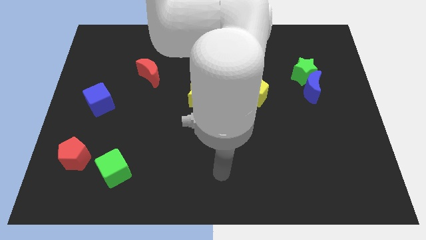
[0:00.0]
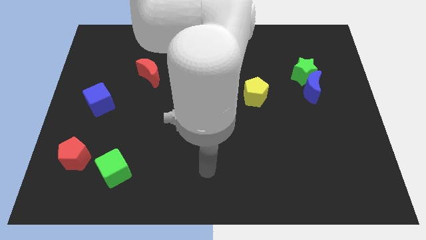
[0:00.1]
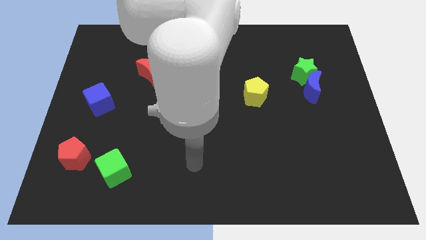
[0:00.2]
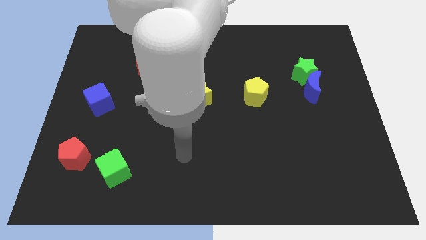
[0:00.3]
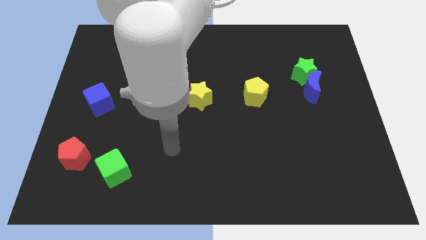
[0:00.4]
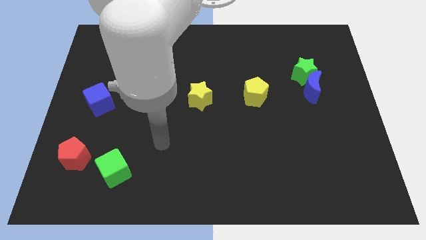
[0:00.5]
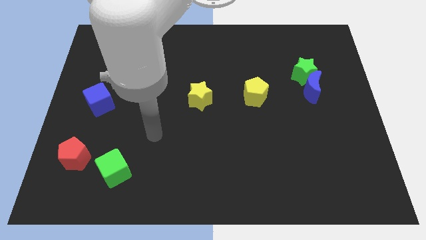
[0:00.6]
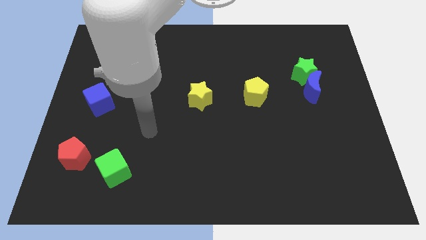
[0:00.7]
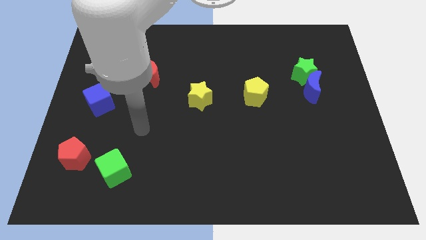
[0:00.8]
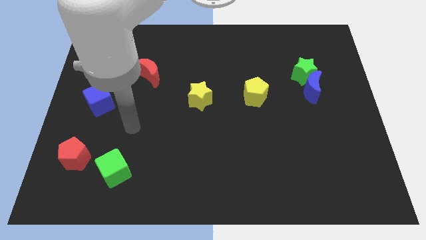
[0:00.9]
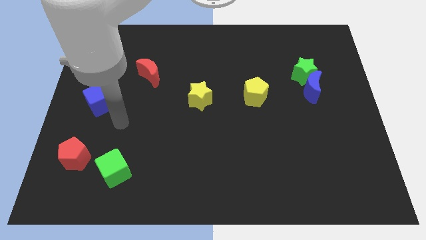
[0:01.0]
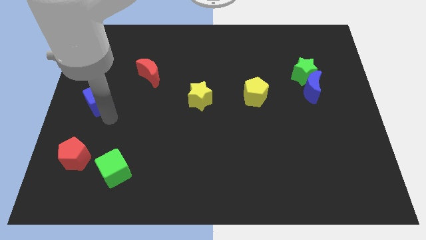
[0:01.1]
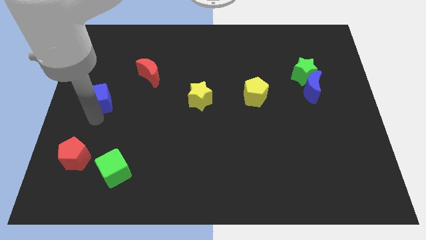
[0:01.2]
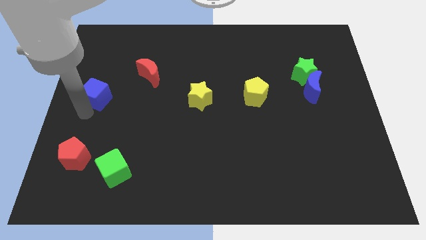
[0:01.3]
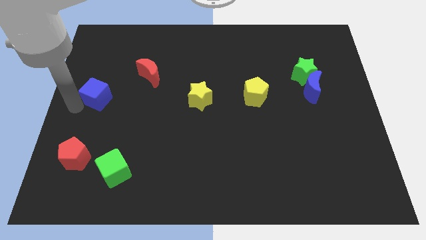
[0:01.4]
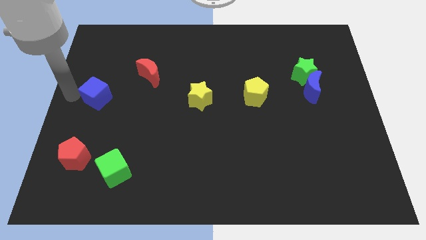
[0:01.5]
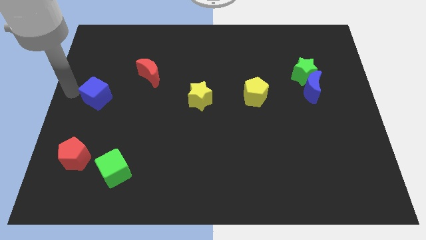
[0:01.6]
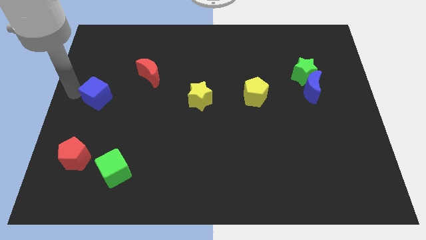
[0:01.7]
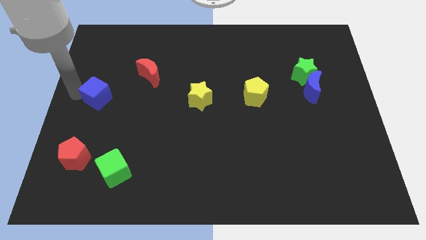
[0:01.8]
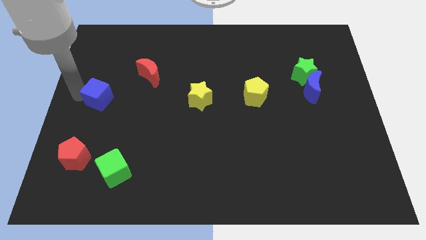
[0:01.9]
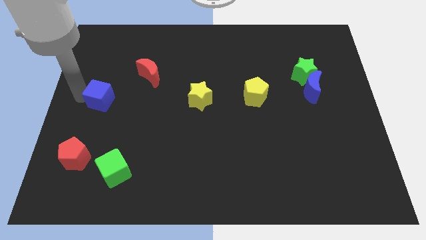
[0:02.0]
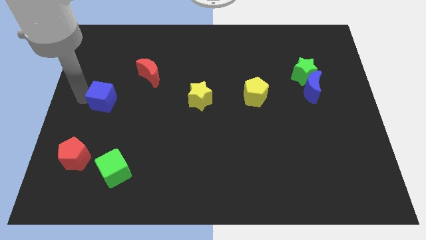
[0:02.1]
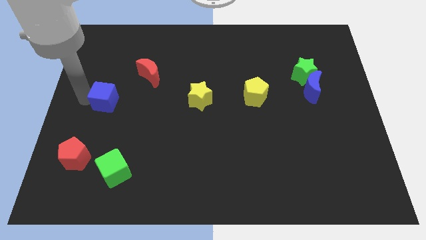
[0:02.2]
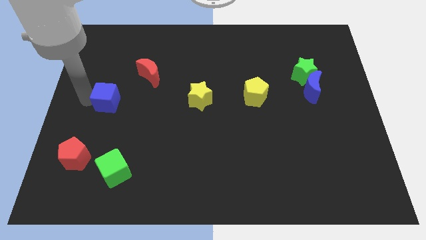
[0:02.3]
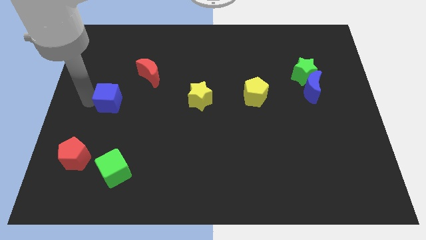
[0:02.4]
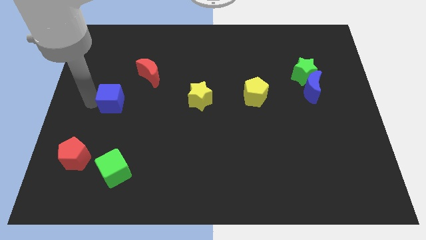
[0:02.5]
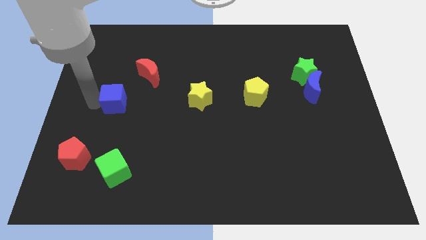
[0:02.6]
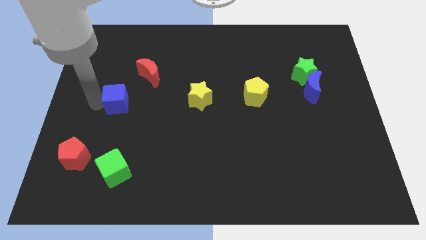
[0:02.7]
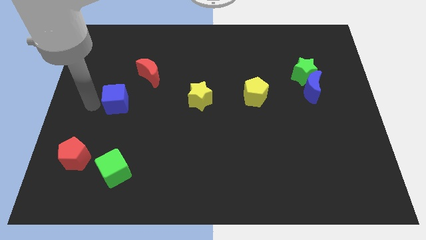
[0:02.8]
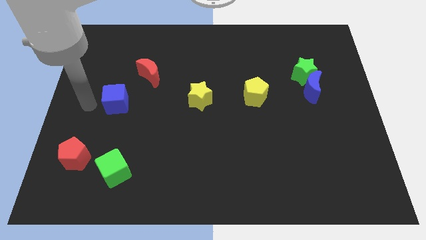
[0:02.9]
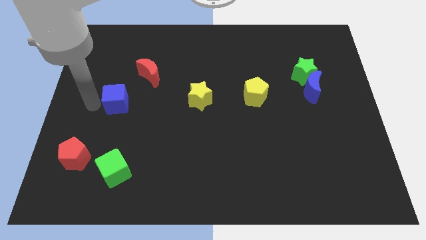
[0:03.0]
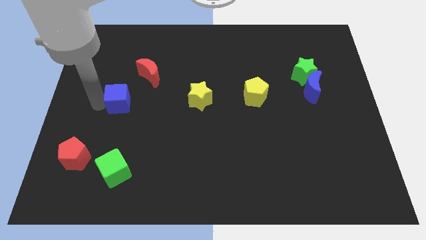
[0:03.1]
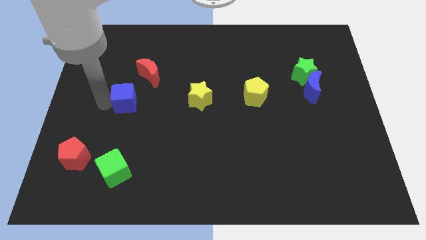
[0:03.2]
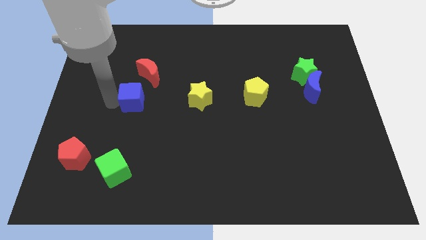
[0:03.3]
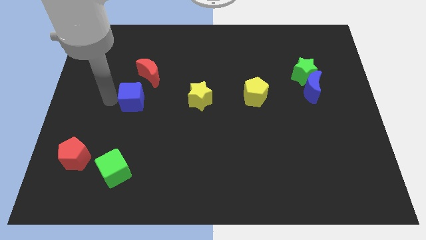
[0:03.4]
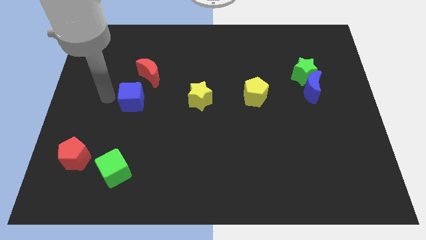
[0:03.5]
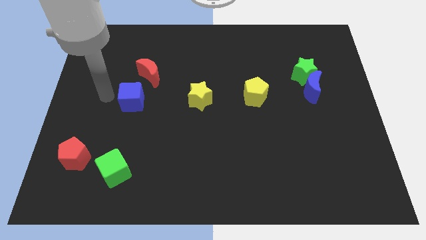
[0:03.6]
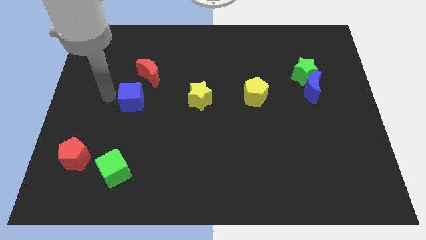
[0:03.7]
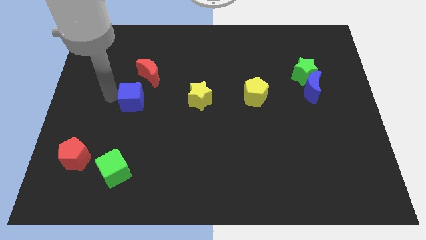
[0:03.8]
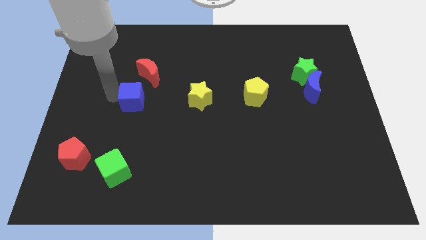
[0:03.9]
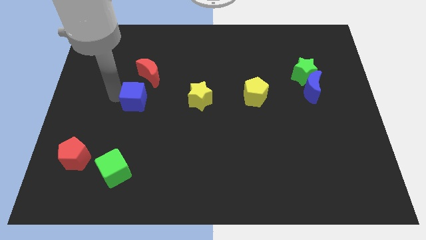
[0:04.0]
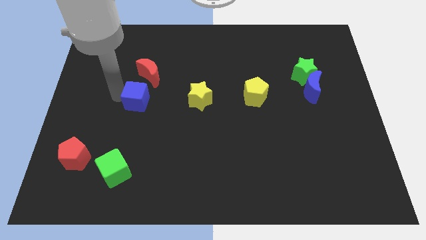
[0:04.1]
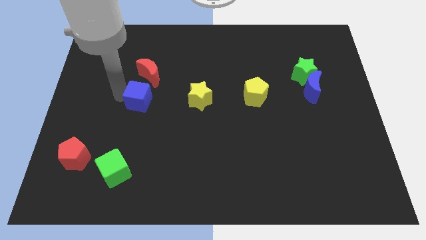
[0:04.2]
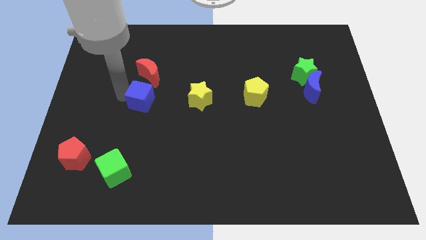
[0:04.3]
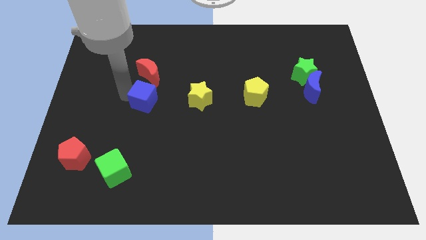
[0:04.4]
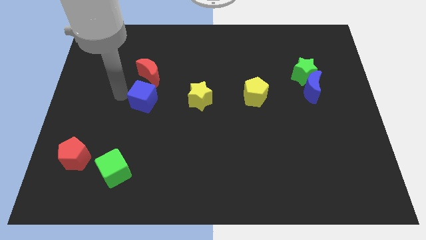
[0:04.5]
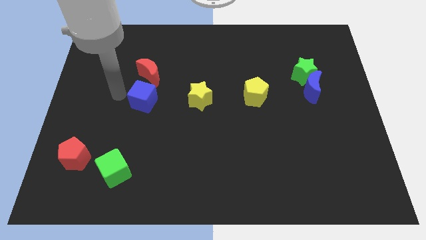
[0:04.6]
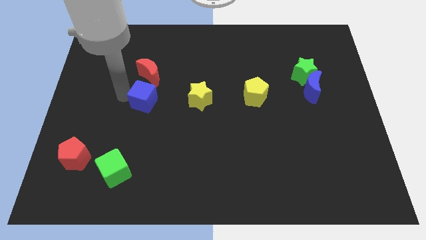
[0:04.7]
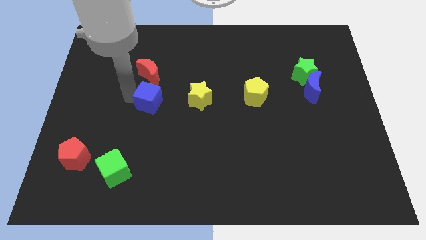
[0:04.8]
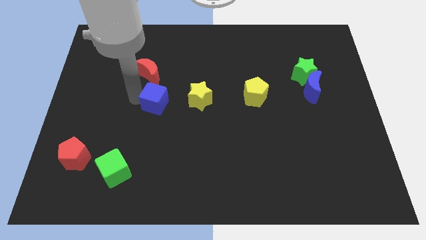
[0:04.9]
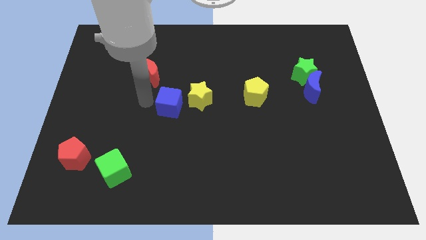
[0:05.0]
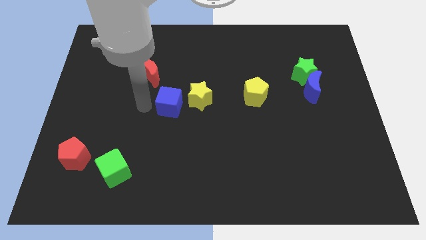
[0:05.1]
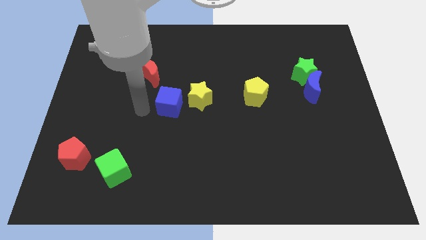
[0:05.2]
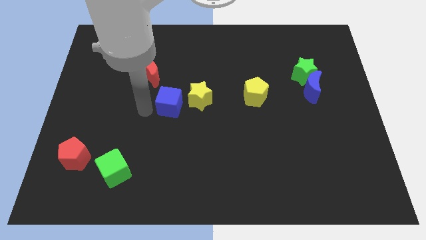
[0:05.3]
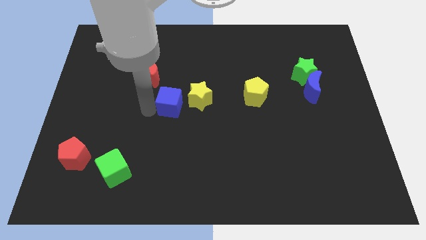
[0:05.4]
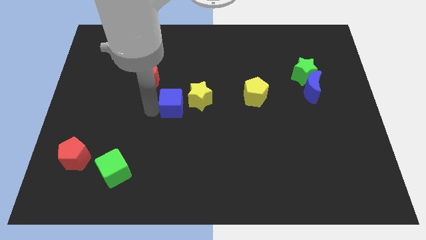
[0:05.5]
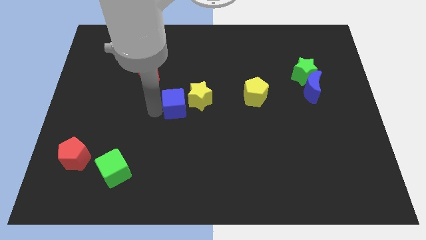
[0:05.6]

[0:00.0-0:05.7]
put the blue cube to the yellow star

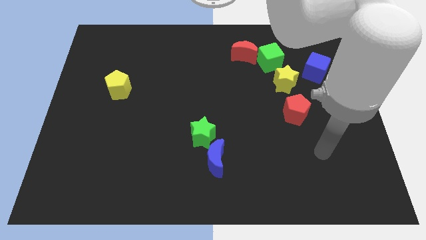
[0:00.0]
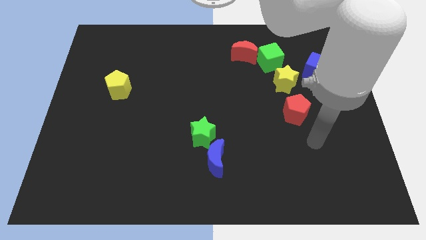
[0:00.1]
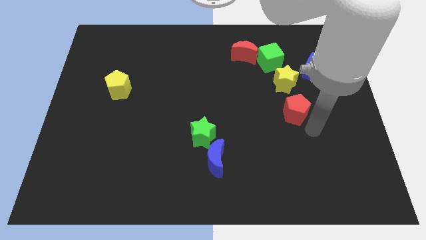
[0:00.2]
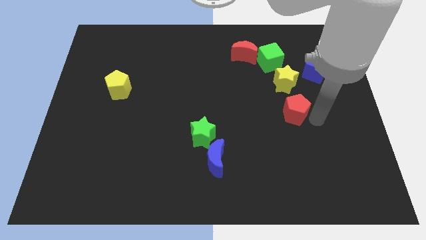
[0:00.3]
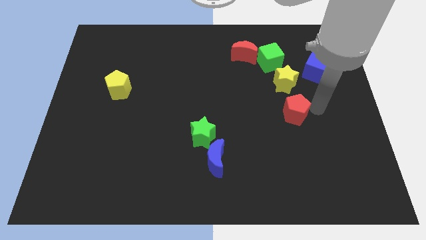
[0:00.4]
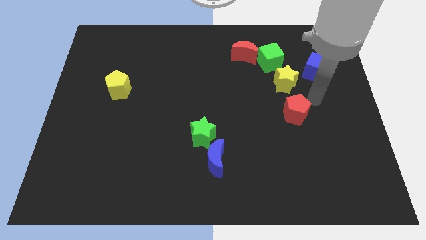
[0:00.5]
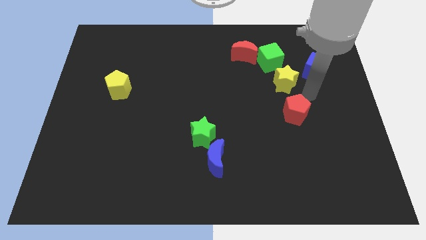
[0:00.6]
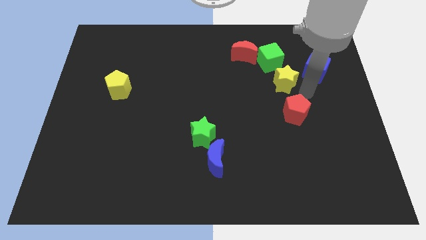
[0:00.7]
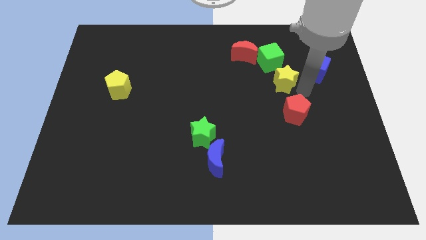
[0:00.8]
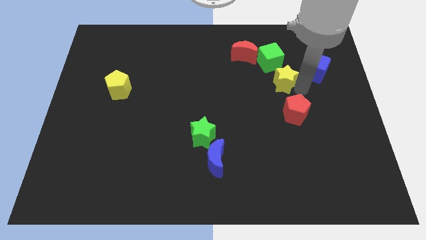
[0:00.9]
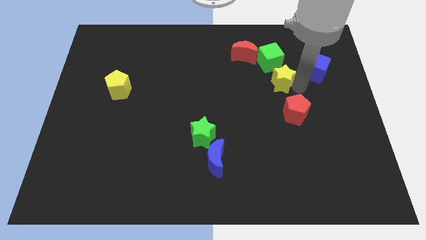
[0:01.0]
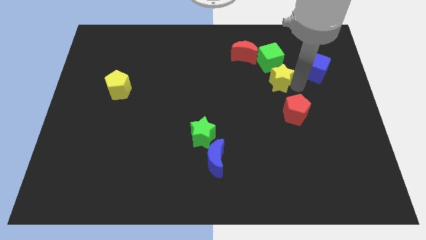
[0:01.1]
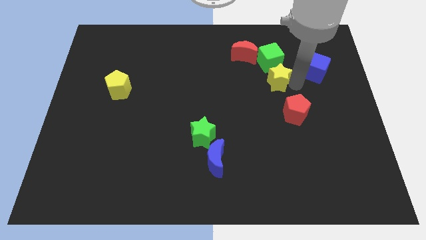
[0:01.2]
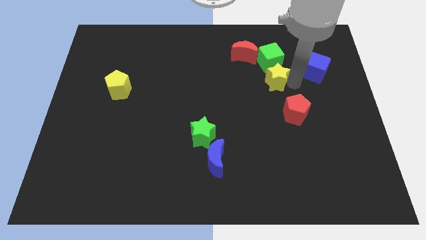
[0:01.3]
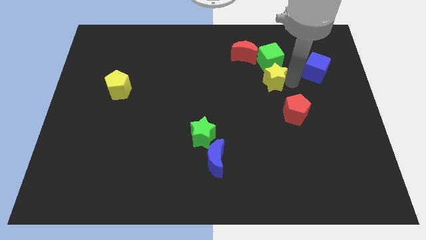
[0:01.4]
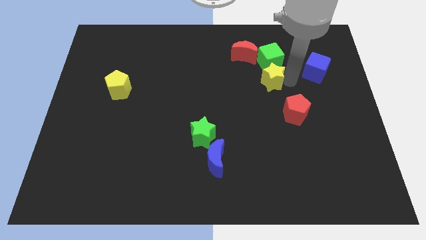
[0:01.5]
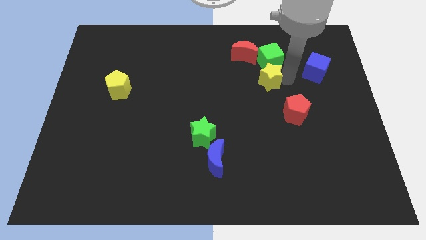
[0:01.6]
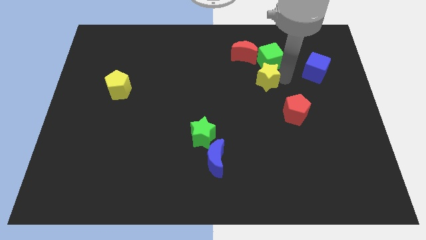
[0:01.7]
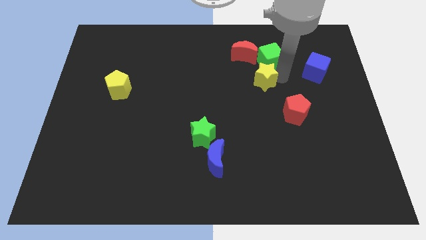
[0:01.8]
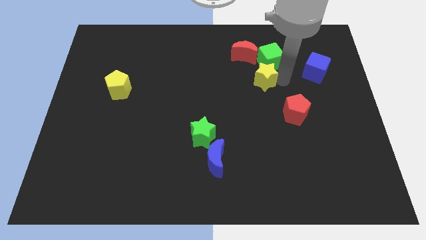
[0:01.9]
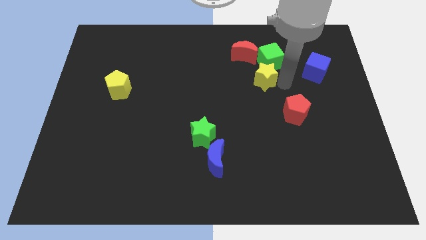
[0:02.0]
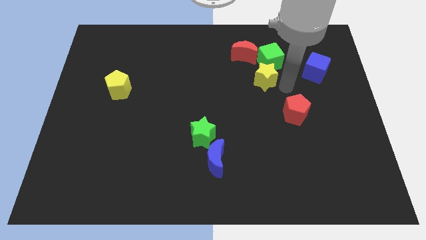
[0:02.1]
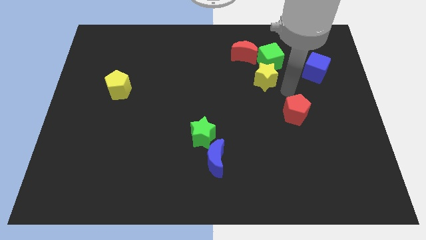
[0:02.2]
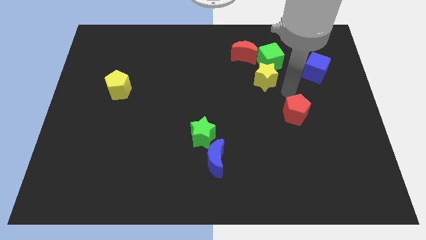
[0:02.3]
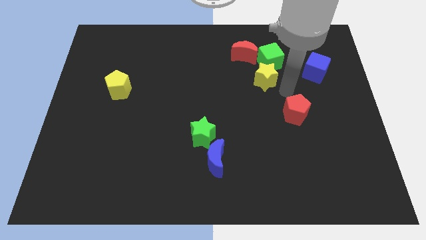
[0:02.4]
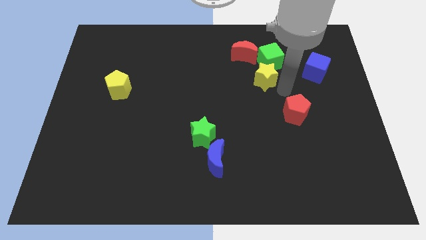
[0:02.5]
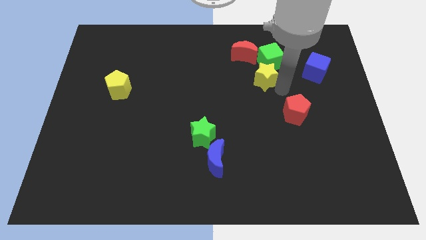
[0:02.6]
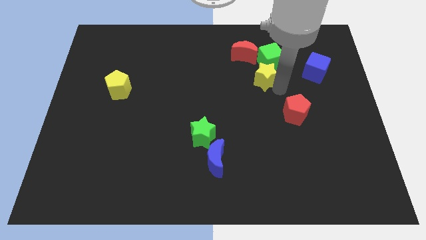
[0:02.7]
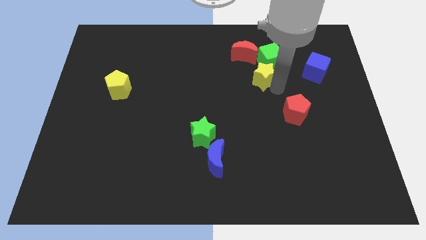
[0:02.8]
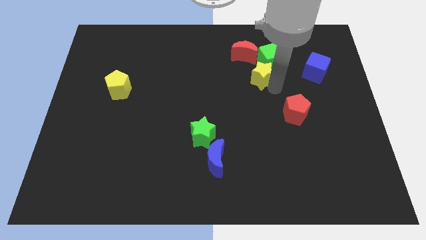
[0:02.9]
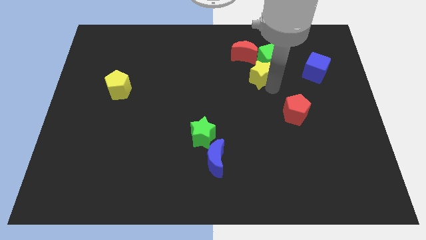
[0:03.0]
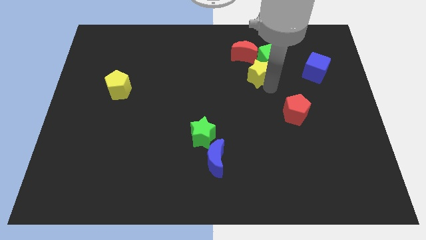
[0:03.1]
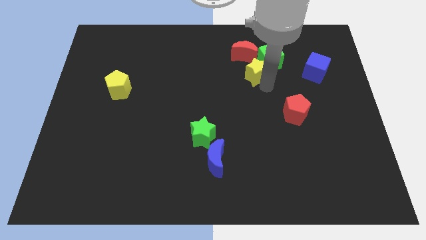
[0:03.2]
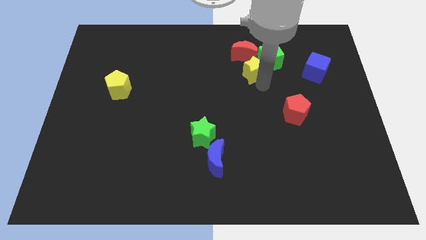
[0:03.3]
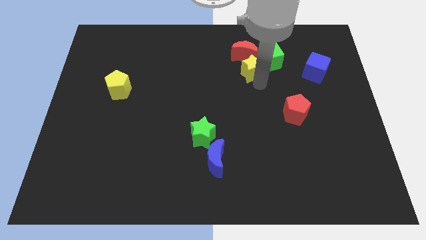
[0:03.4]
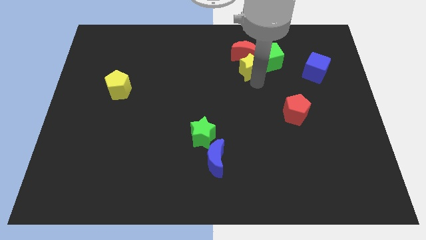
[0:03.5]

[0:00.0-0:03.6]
slide the yellow star next to the red moon
